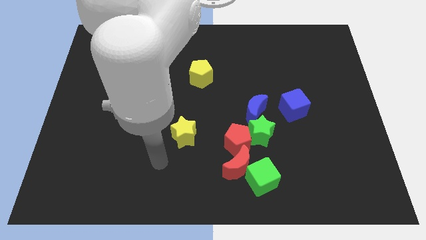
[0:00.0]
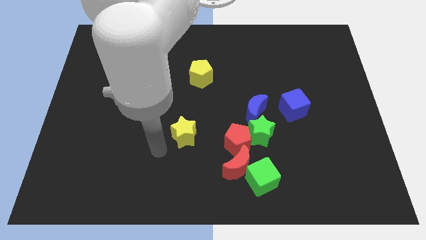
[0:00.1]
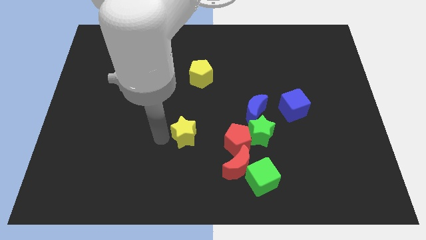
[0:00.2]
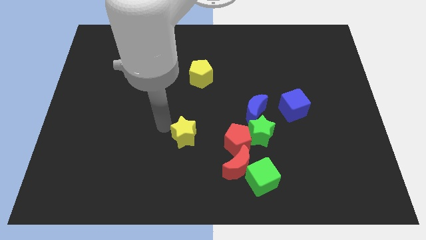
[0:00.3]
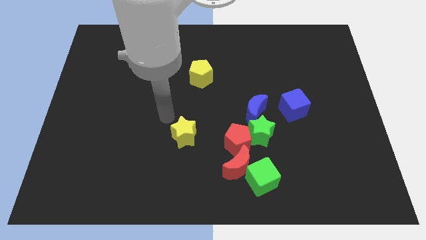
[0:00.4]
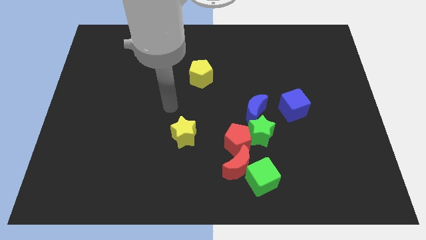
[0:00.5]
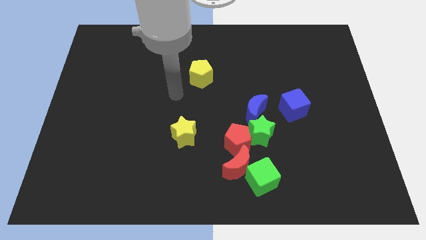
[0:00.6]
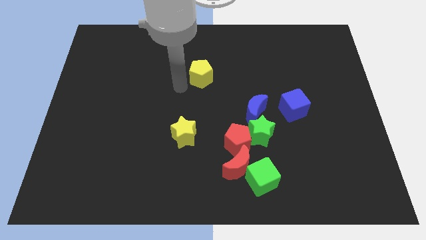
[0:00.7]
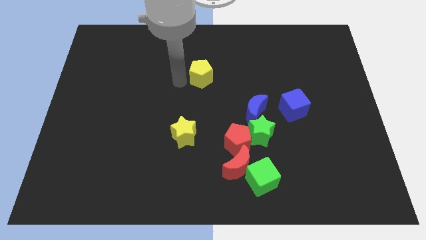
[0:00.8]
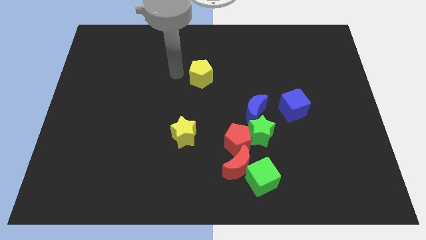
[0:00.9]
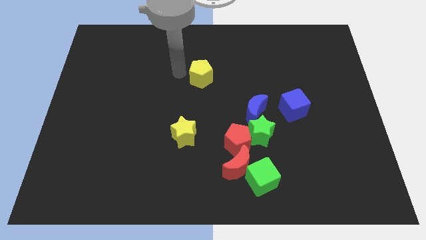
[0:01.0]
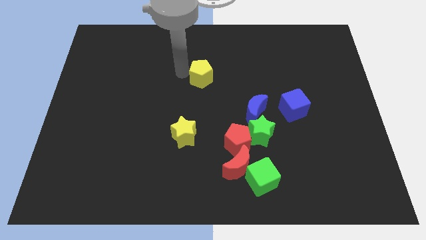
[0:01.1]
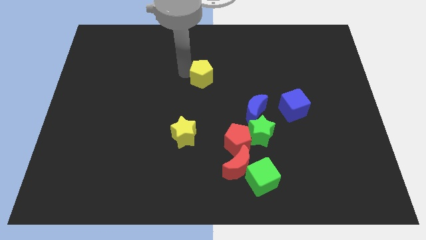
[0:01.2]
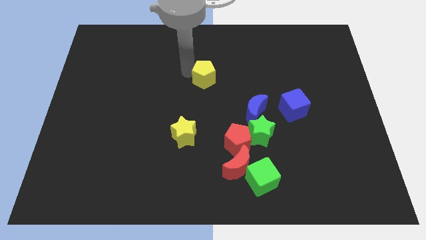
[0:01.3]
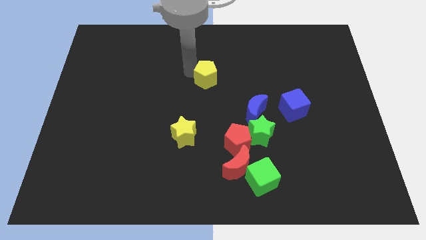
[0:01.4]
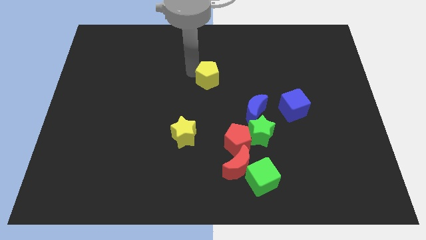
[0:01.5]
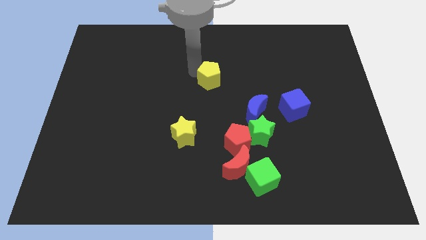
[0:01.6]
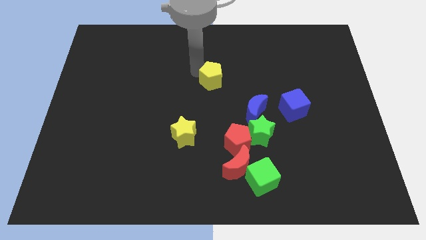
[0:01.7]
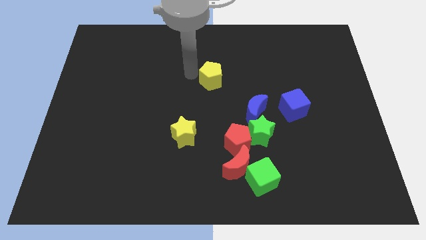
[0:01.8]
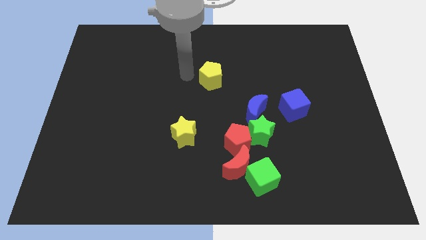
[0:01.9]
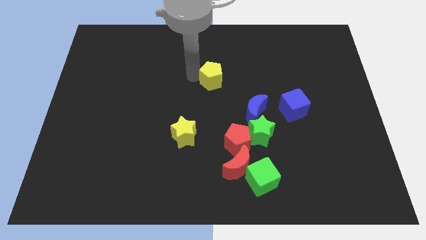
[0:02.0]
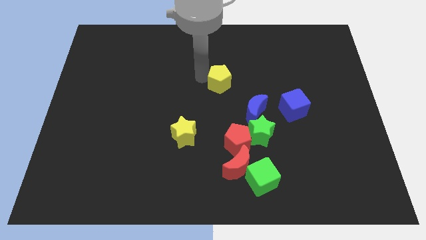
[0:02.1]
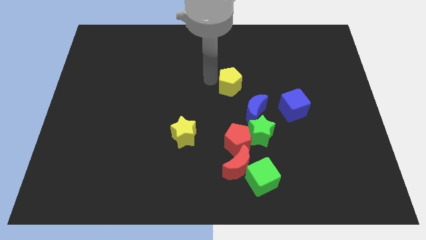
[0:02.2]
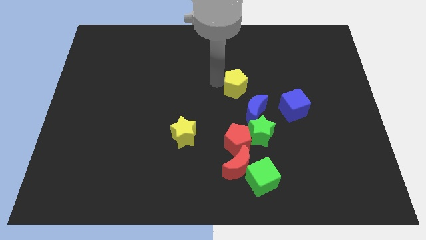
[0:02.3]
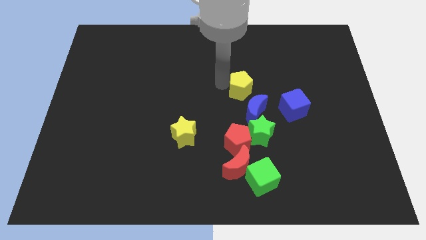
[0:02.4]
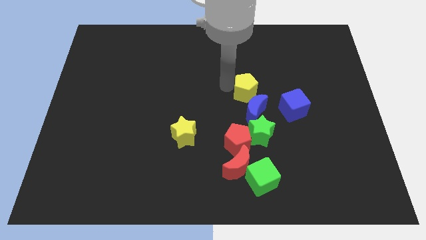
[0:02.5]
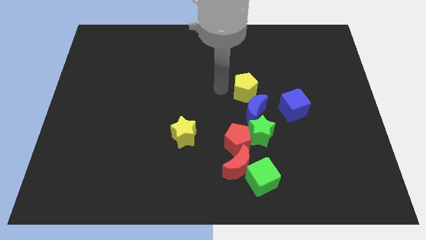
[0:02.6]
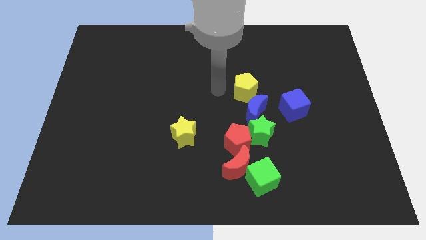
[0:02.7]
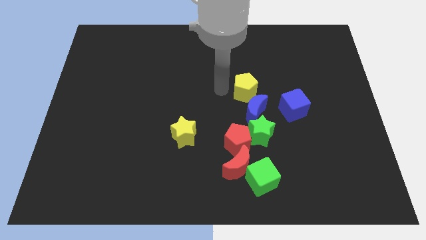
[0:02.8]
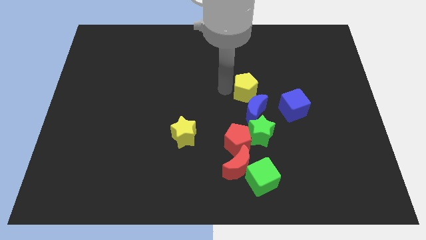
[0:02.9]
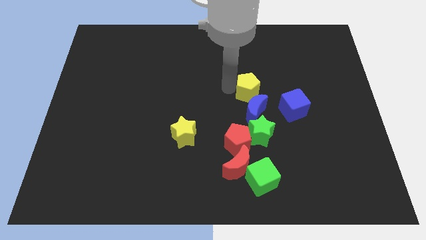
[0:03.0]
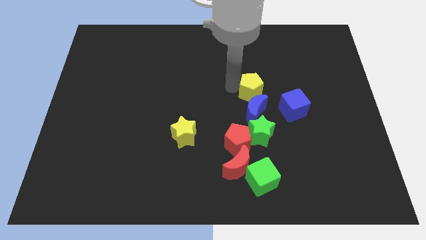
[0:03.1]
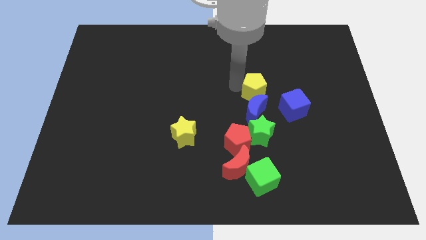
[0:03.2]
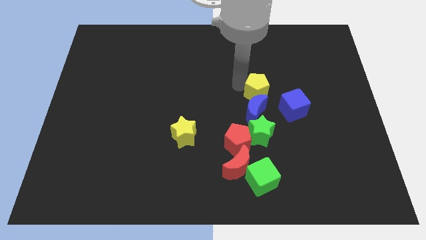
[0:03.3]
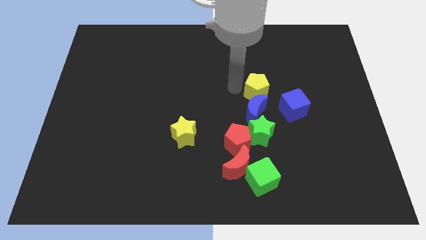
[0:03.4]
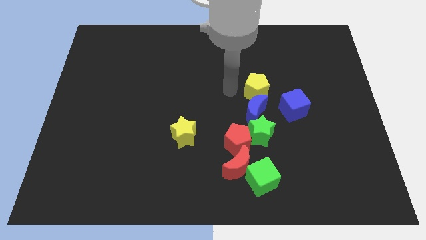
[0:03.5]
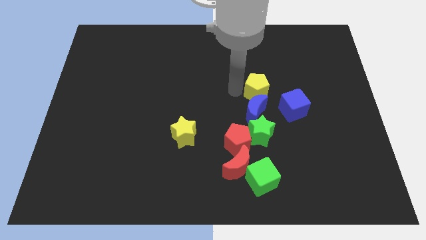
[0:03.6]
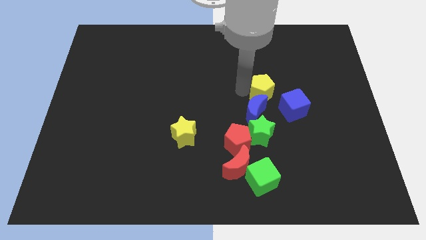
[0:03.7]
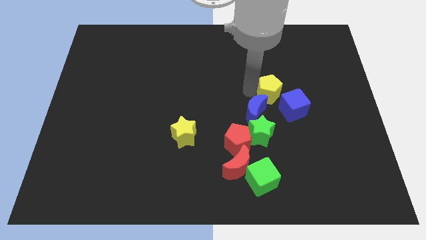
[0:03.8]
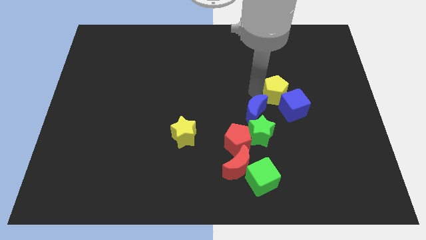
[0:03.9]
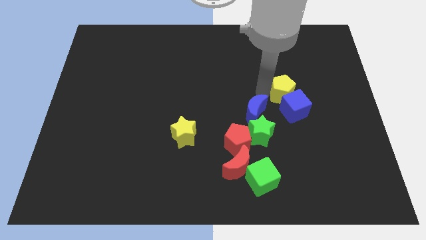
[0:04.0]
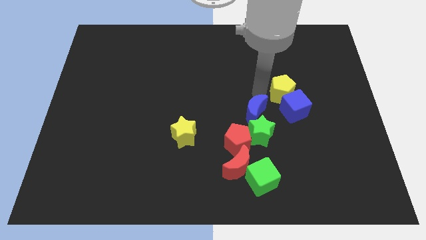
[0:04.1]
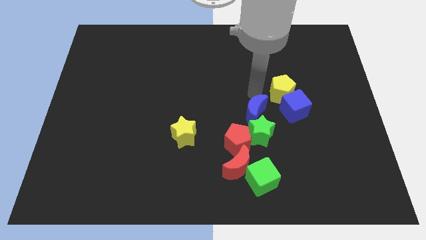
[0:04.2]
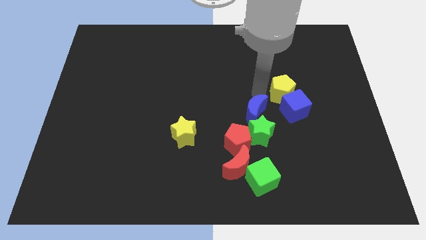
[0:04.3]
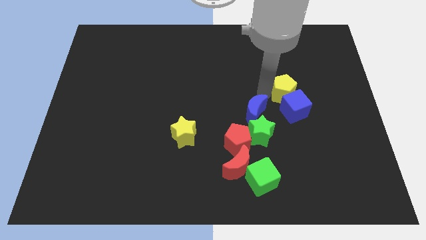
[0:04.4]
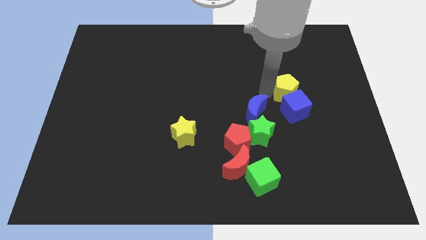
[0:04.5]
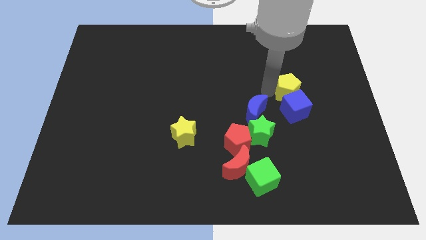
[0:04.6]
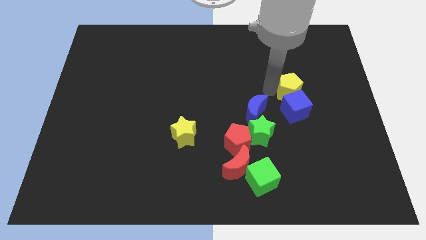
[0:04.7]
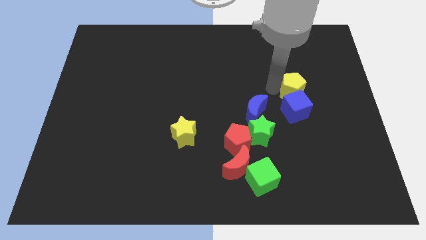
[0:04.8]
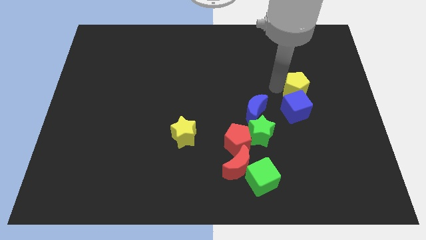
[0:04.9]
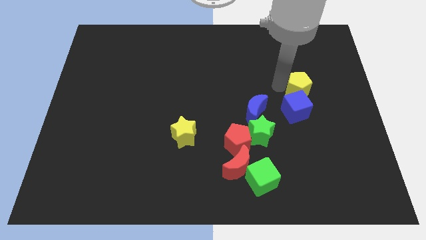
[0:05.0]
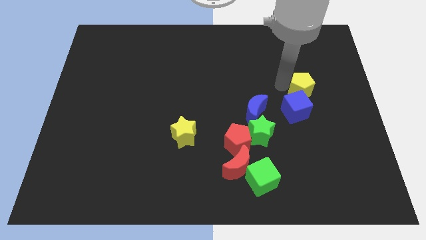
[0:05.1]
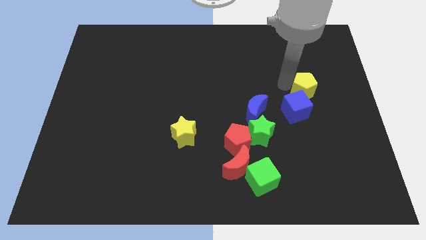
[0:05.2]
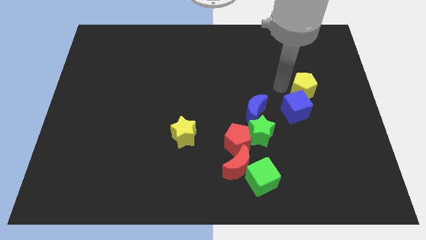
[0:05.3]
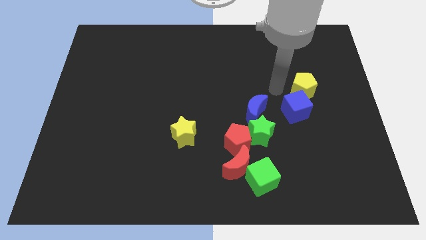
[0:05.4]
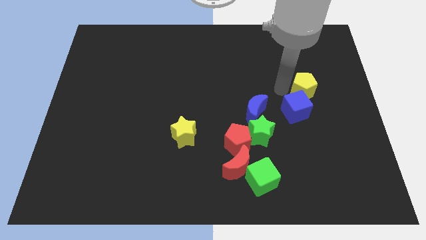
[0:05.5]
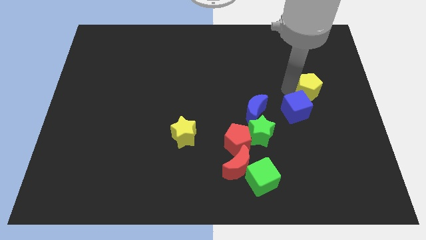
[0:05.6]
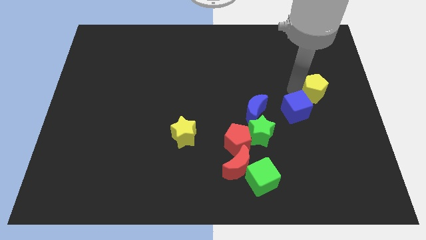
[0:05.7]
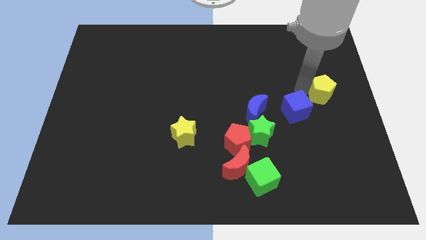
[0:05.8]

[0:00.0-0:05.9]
move the yellow pentagon to the center right

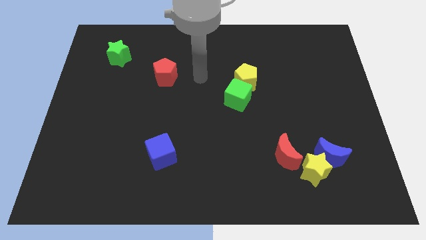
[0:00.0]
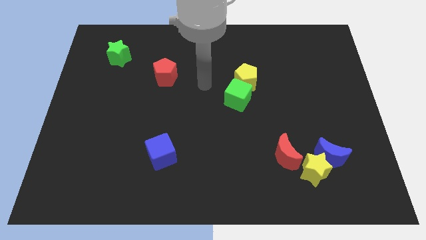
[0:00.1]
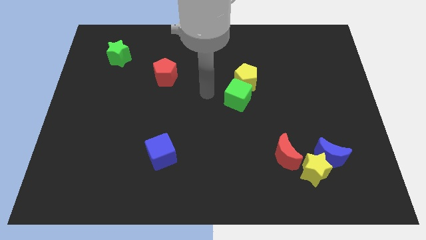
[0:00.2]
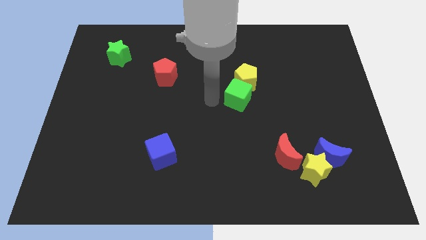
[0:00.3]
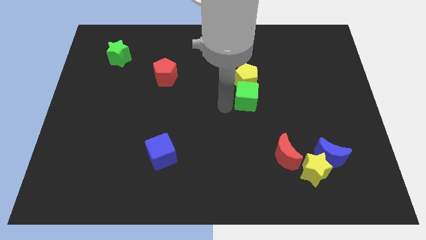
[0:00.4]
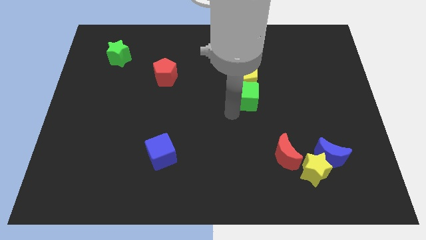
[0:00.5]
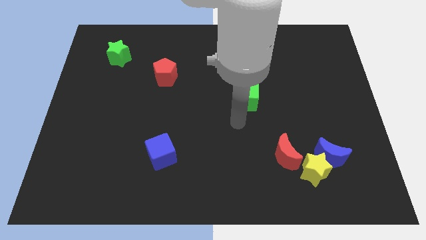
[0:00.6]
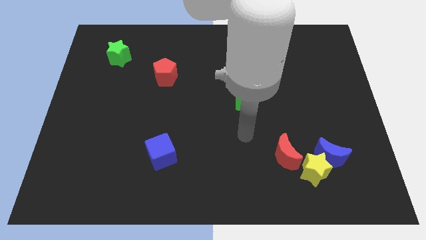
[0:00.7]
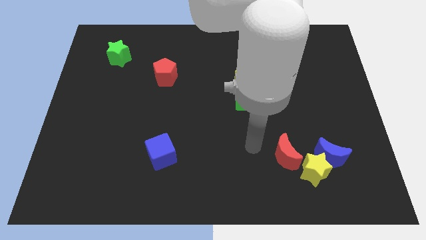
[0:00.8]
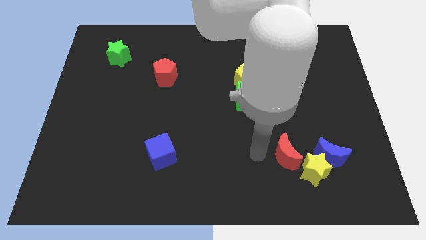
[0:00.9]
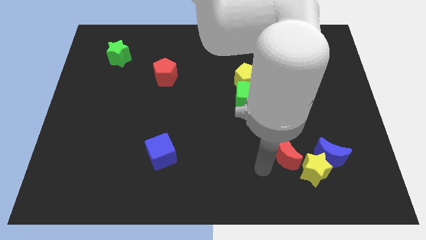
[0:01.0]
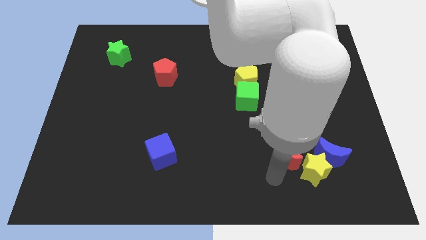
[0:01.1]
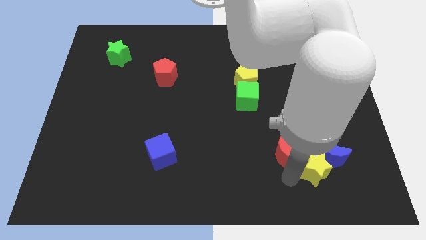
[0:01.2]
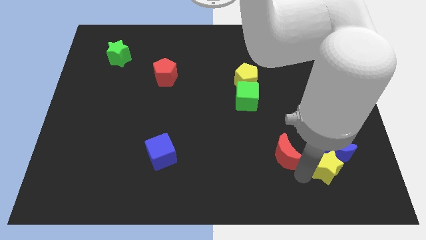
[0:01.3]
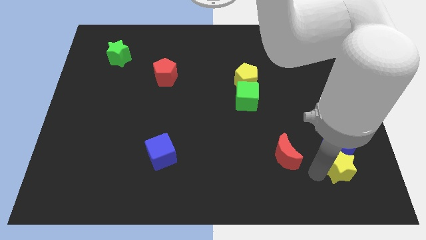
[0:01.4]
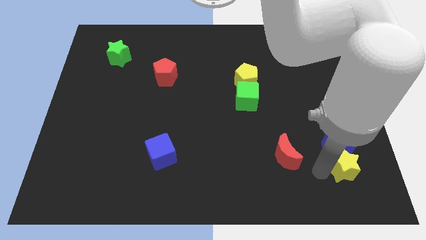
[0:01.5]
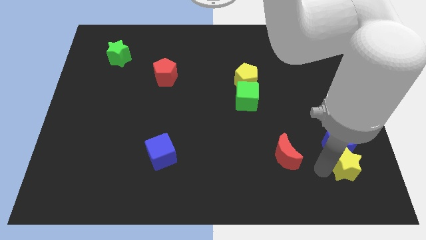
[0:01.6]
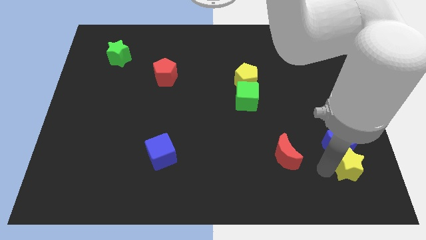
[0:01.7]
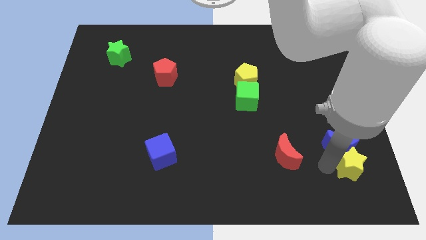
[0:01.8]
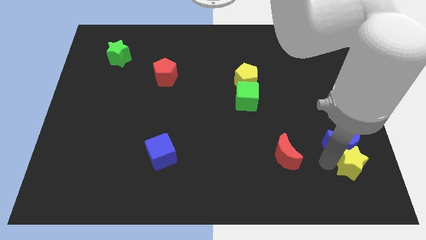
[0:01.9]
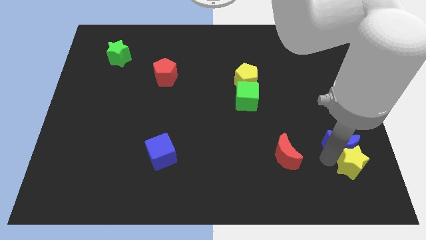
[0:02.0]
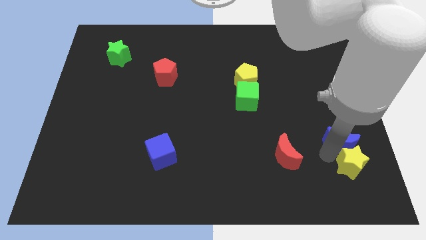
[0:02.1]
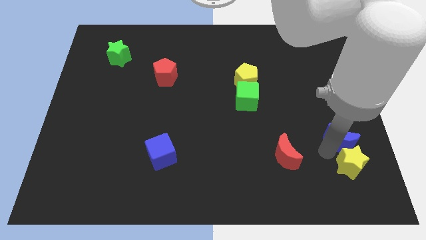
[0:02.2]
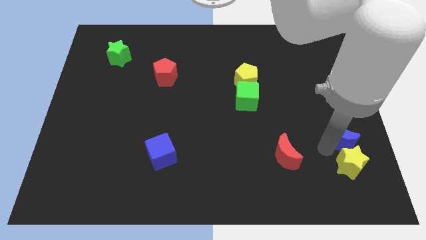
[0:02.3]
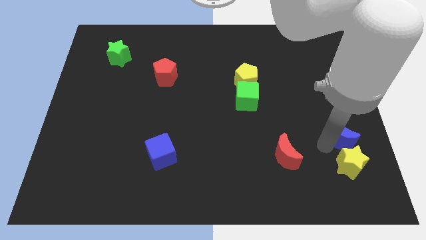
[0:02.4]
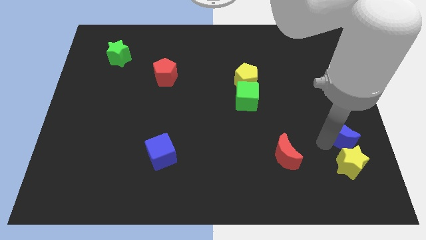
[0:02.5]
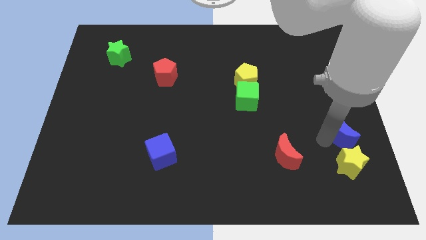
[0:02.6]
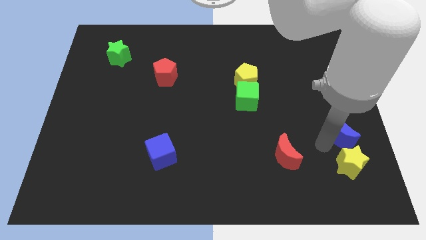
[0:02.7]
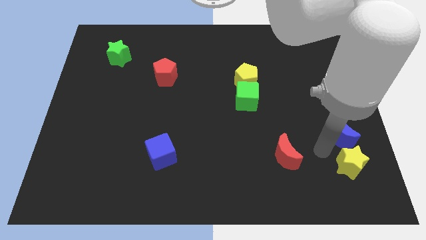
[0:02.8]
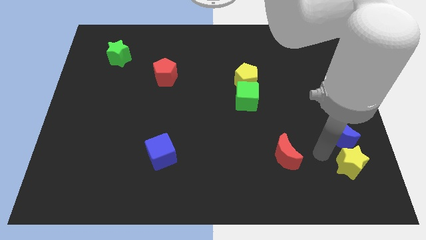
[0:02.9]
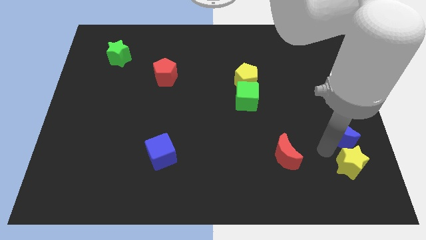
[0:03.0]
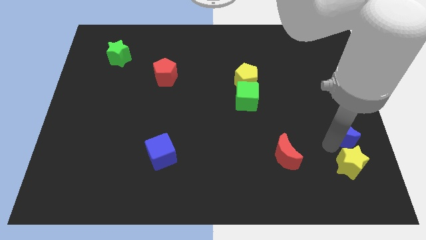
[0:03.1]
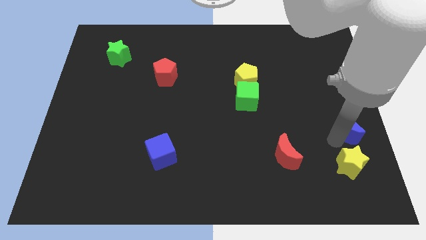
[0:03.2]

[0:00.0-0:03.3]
slide the blue moon to the center right
